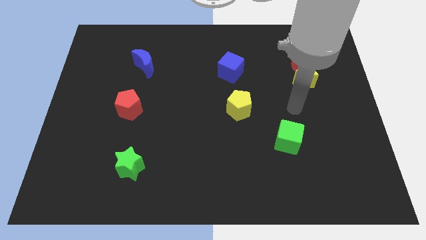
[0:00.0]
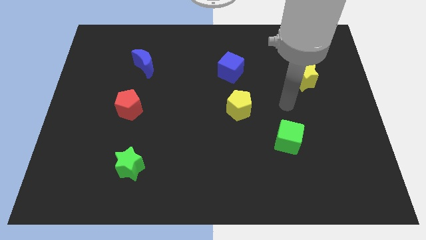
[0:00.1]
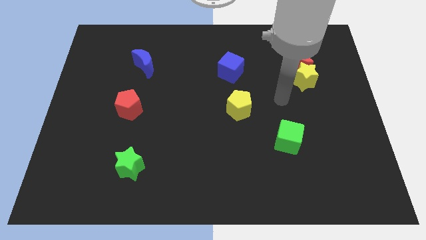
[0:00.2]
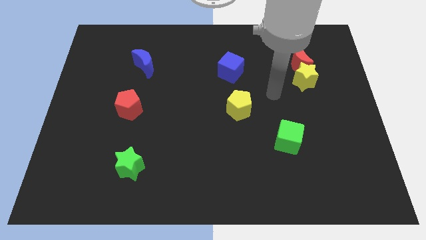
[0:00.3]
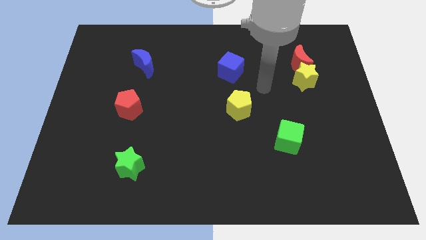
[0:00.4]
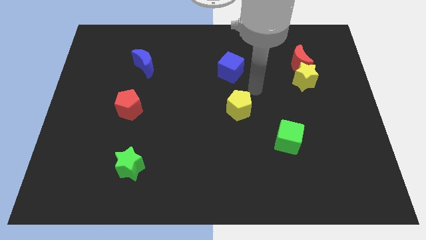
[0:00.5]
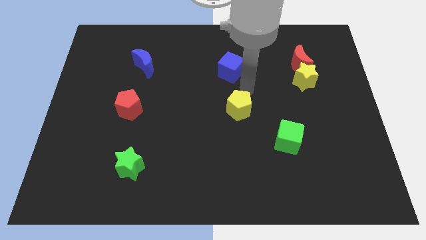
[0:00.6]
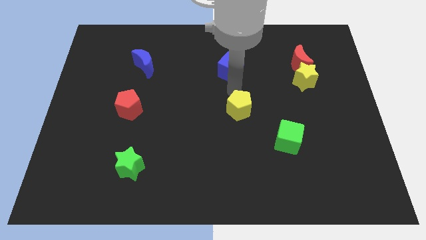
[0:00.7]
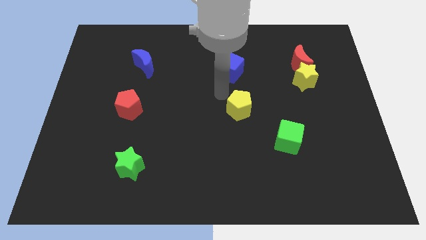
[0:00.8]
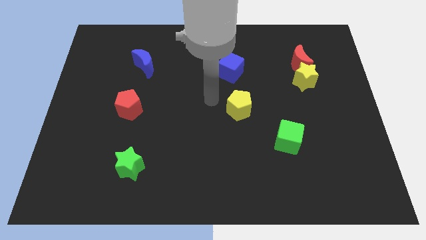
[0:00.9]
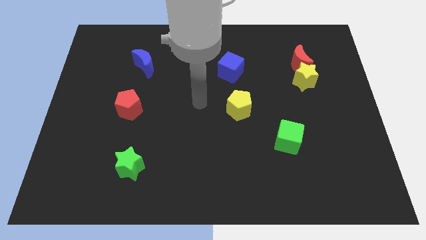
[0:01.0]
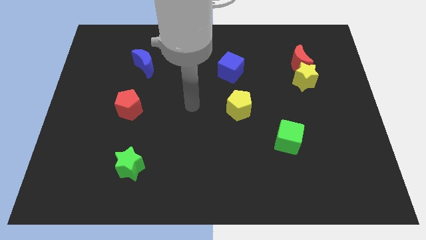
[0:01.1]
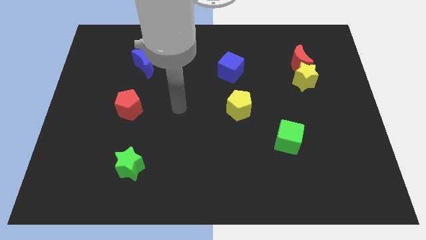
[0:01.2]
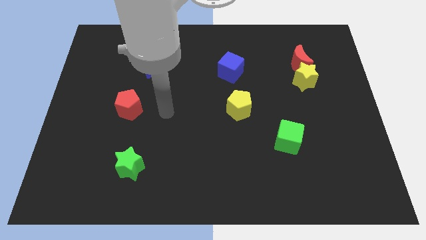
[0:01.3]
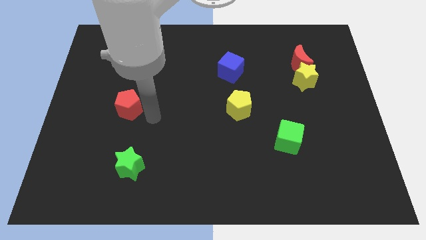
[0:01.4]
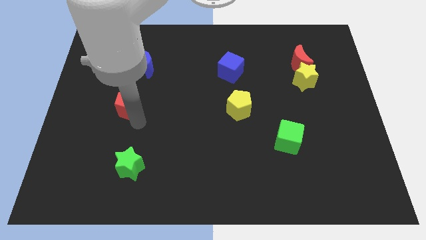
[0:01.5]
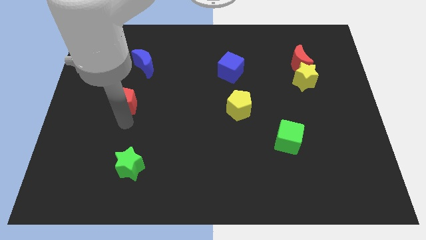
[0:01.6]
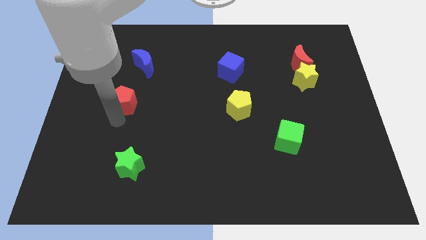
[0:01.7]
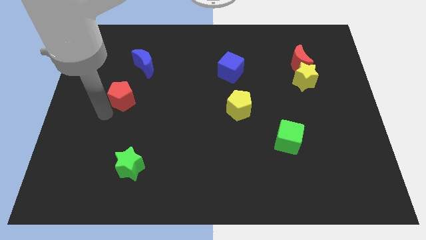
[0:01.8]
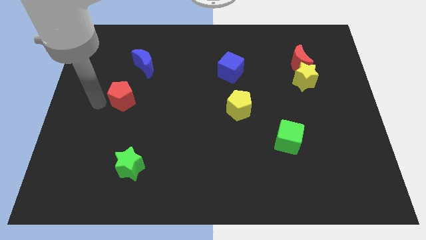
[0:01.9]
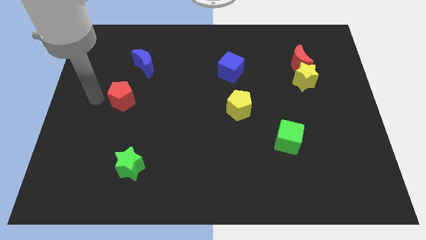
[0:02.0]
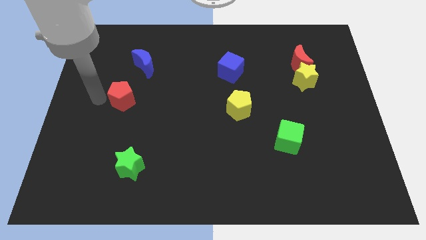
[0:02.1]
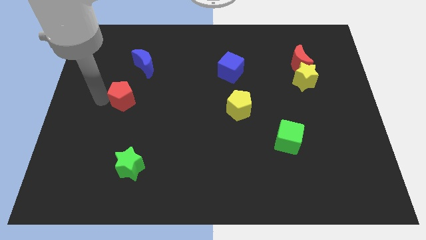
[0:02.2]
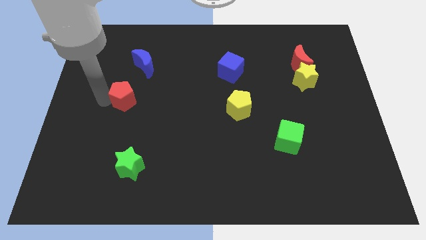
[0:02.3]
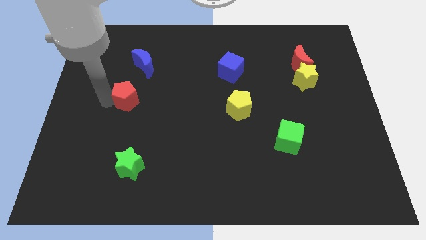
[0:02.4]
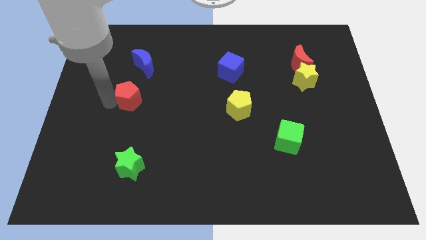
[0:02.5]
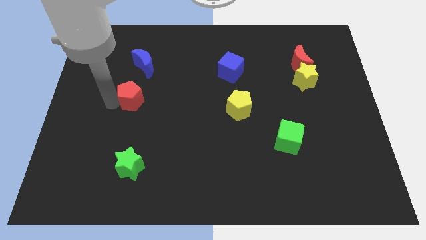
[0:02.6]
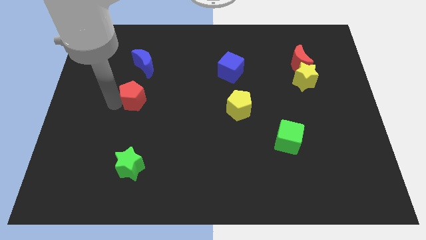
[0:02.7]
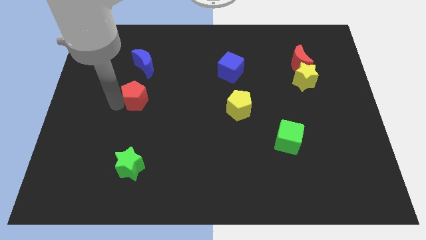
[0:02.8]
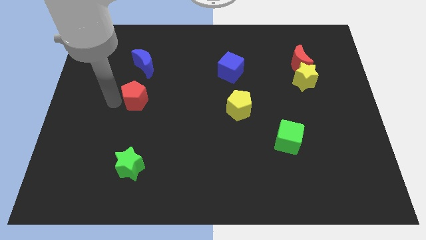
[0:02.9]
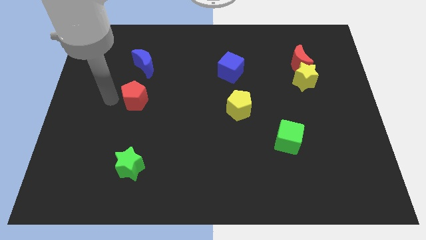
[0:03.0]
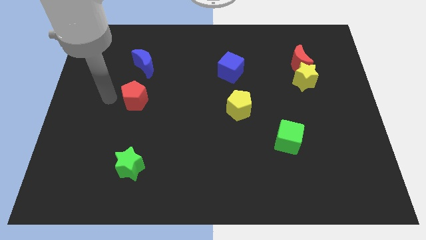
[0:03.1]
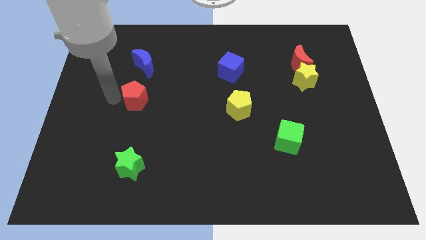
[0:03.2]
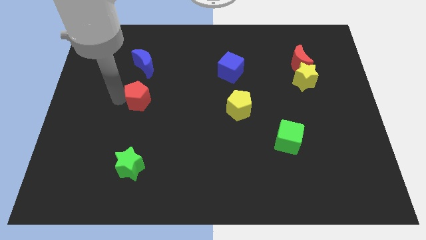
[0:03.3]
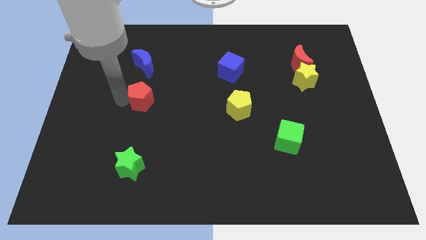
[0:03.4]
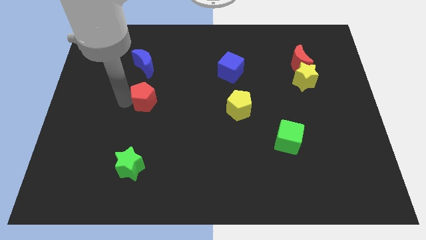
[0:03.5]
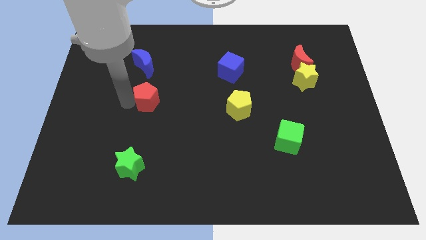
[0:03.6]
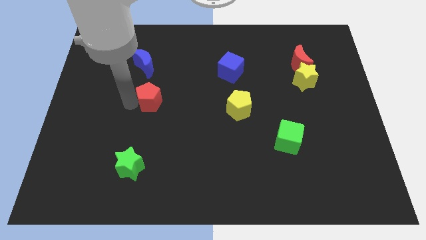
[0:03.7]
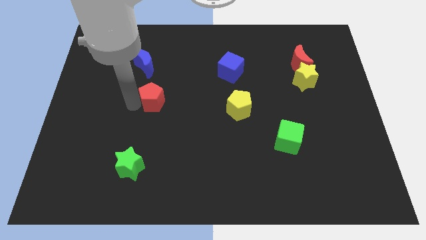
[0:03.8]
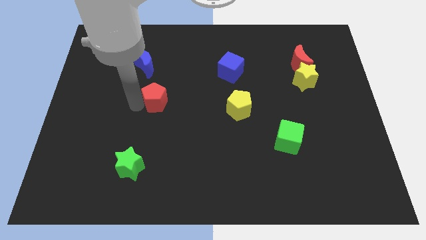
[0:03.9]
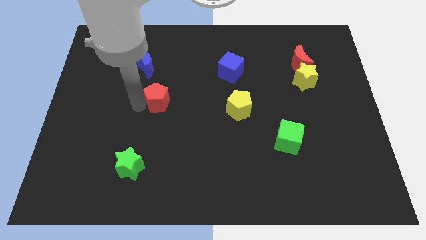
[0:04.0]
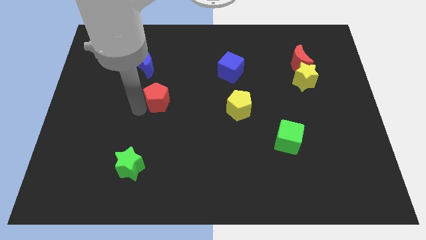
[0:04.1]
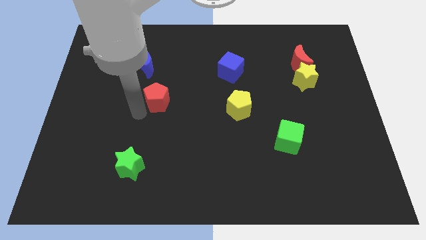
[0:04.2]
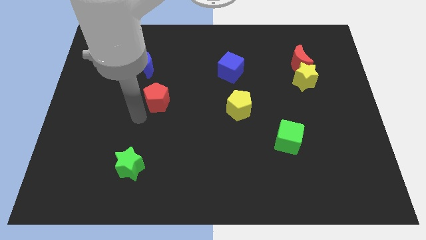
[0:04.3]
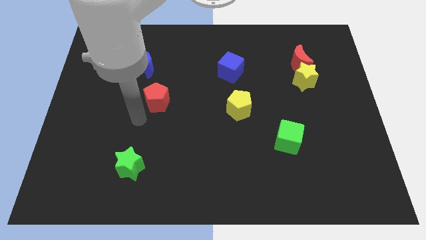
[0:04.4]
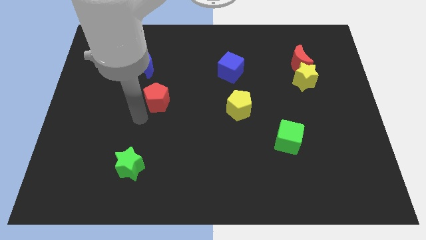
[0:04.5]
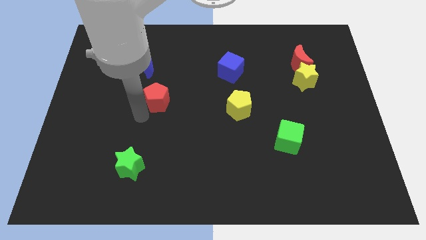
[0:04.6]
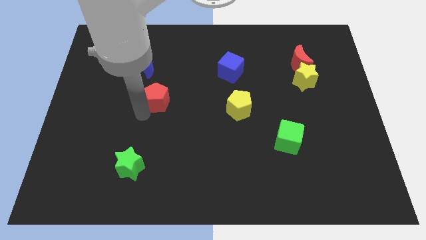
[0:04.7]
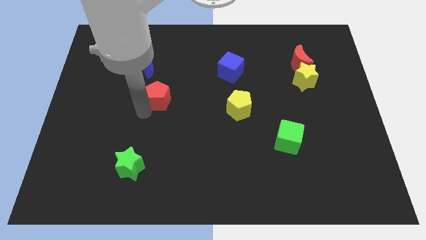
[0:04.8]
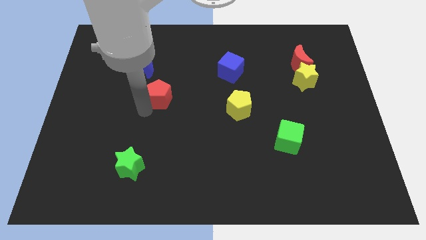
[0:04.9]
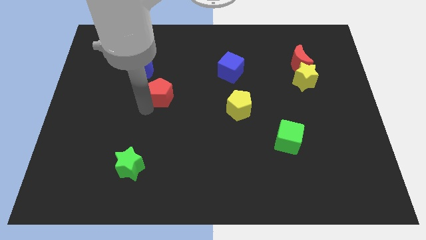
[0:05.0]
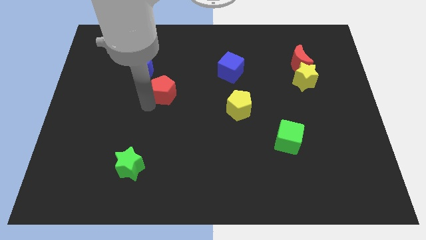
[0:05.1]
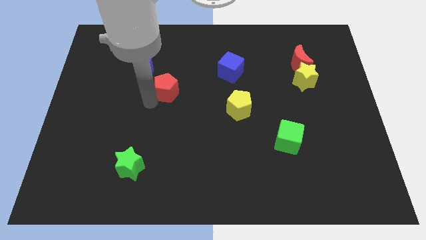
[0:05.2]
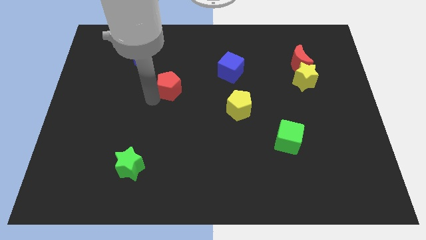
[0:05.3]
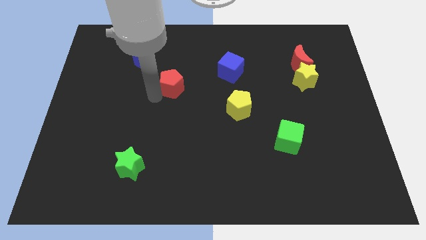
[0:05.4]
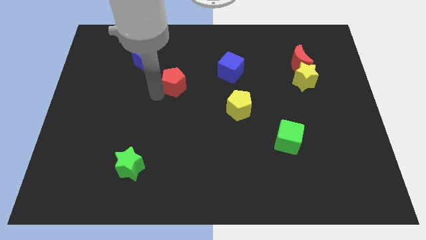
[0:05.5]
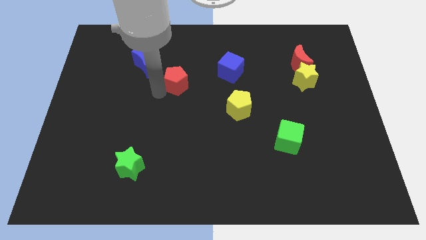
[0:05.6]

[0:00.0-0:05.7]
put the red pentagon to the left side of the blue cube

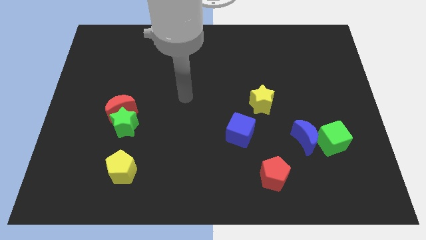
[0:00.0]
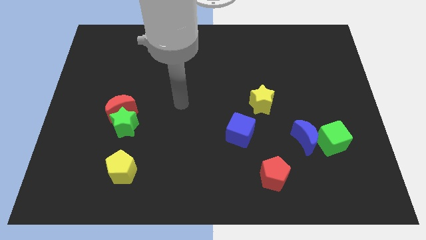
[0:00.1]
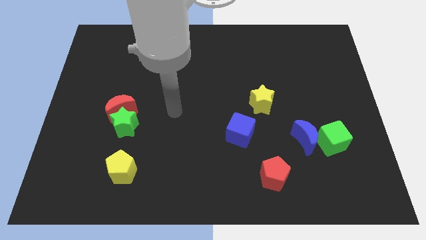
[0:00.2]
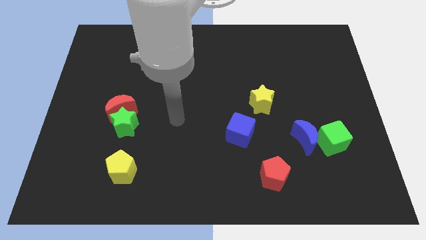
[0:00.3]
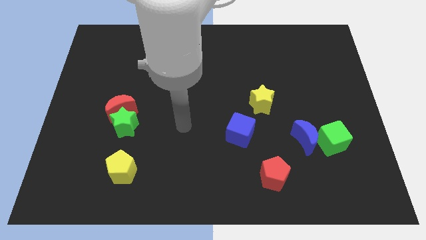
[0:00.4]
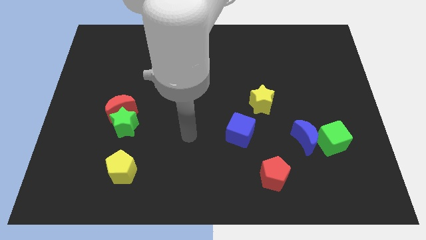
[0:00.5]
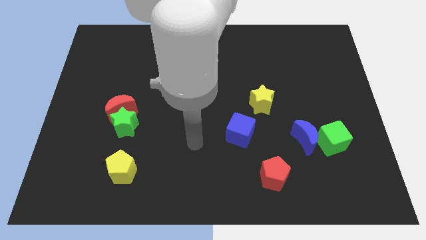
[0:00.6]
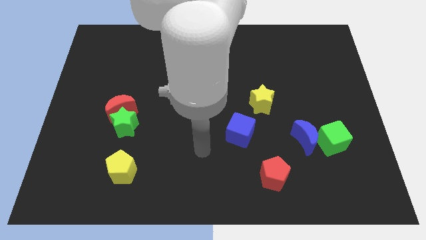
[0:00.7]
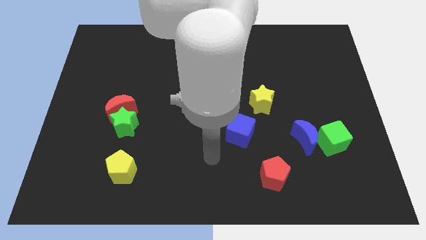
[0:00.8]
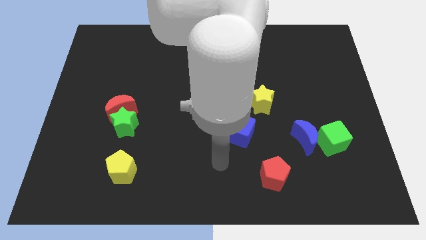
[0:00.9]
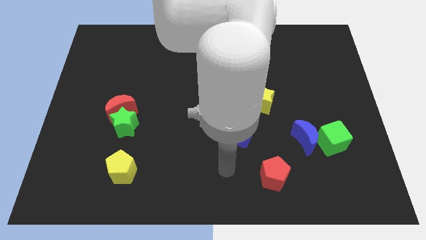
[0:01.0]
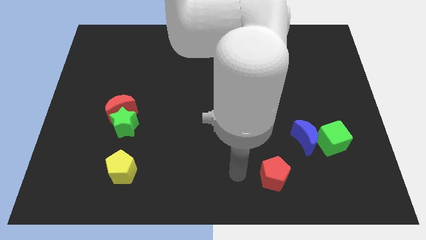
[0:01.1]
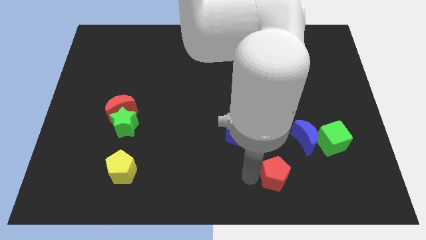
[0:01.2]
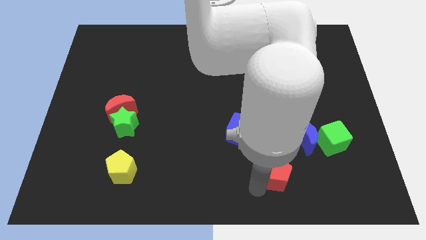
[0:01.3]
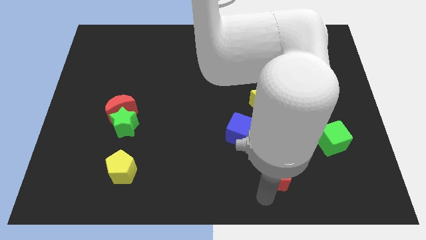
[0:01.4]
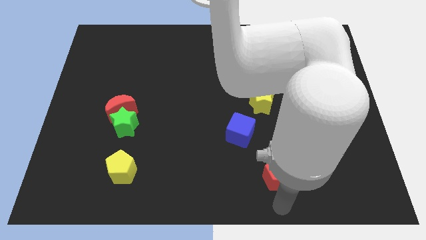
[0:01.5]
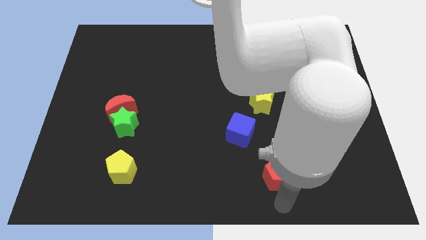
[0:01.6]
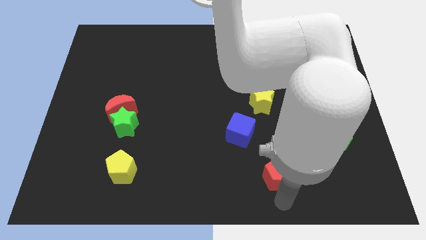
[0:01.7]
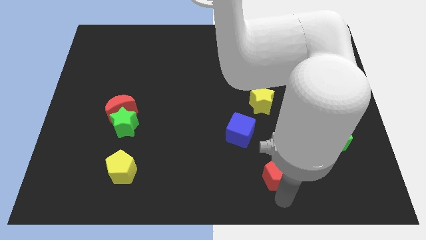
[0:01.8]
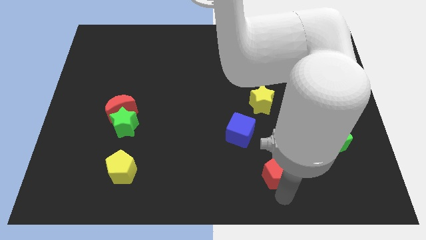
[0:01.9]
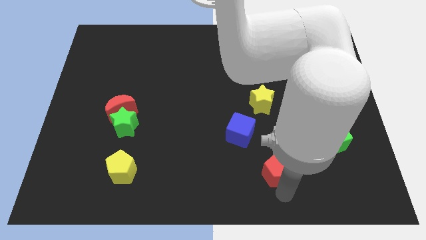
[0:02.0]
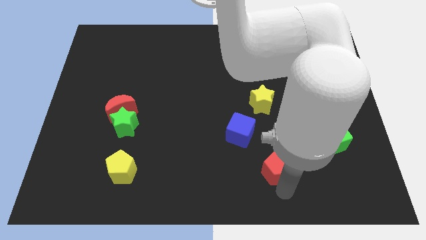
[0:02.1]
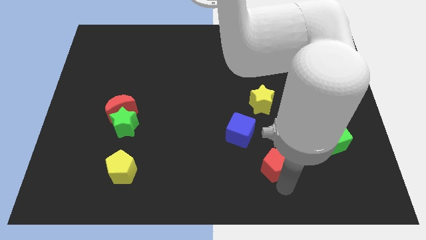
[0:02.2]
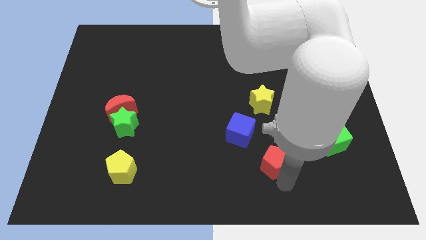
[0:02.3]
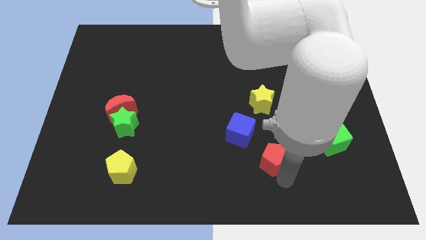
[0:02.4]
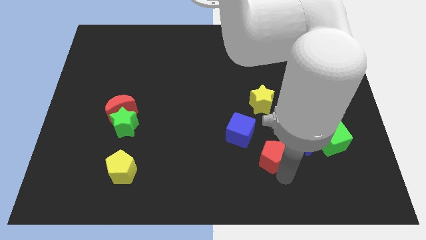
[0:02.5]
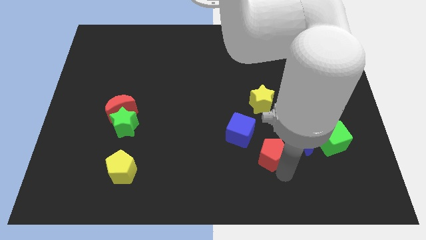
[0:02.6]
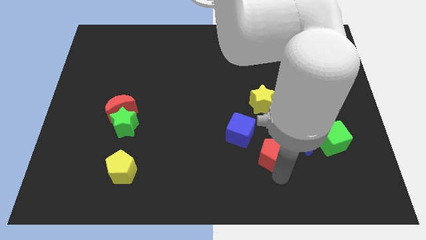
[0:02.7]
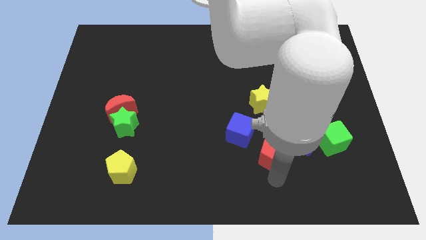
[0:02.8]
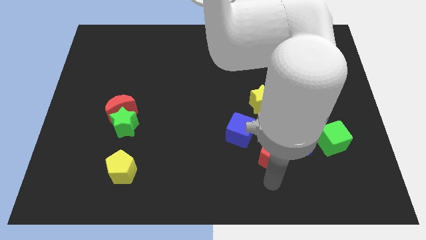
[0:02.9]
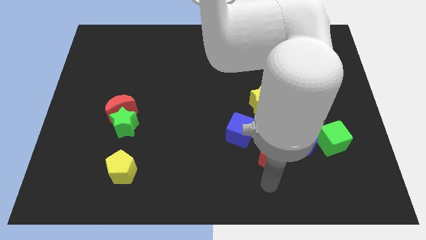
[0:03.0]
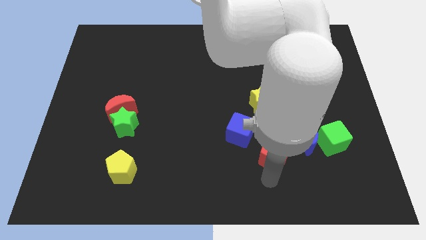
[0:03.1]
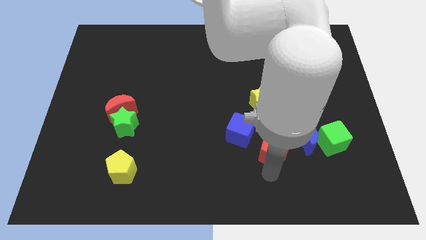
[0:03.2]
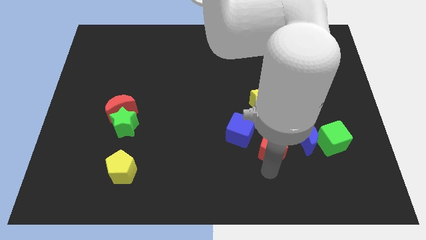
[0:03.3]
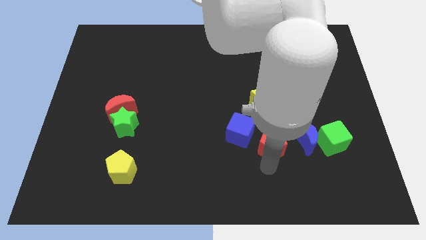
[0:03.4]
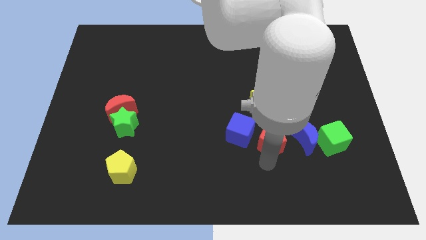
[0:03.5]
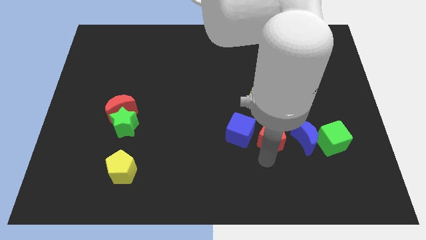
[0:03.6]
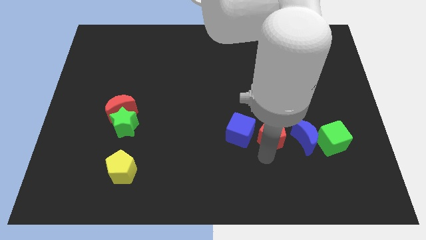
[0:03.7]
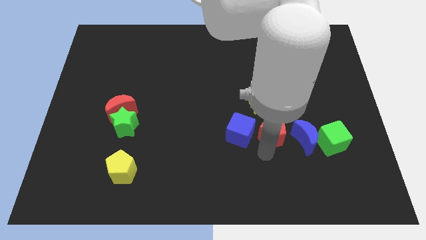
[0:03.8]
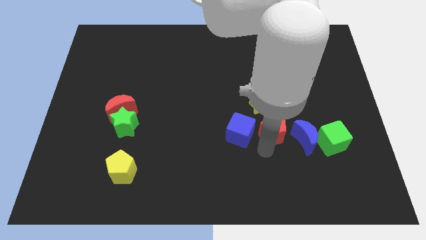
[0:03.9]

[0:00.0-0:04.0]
slide the red pentagon diagonally down and to the right of the yellow star
